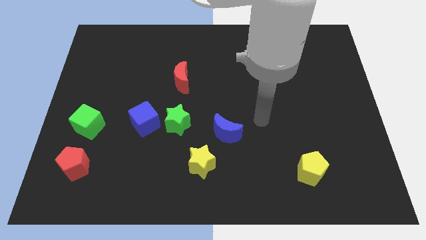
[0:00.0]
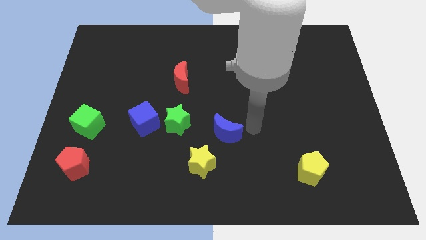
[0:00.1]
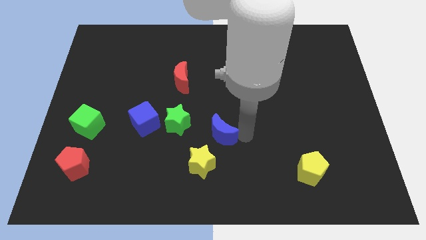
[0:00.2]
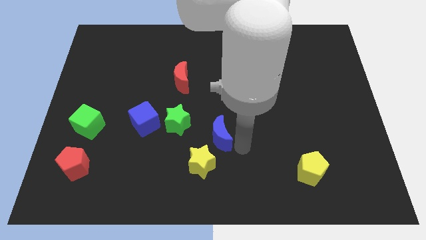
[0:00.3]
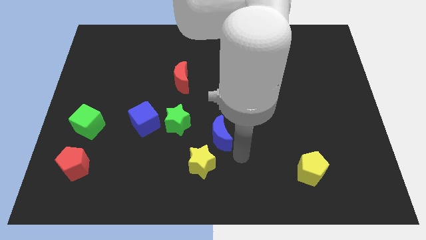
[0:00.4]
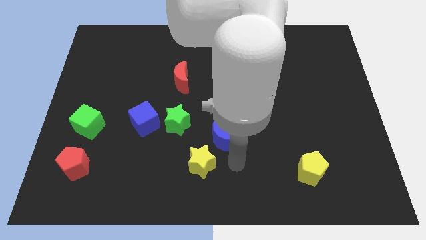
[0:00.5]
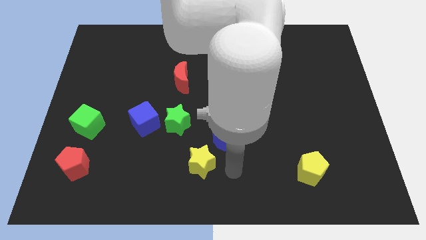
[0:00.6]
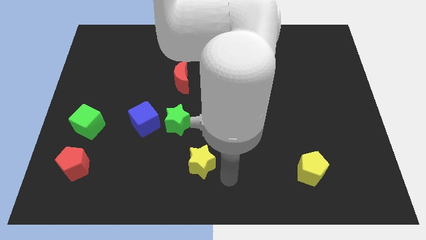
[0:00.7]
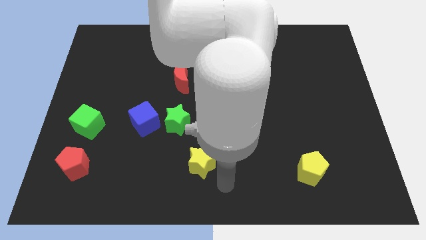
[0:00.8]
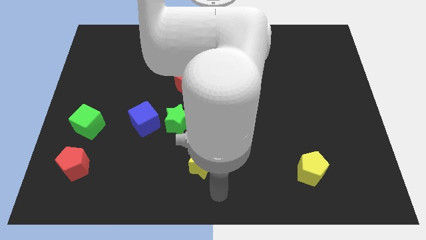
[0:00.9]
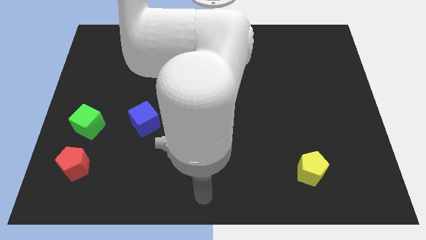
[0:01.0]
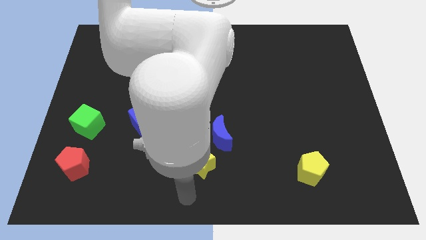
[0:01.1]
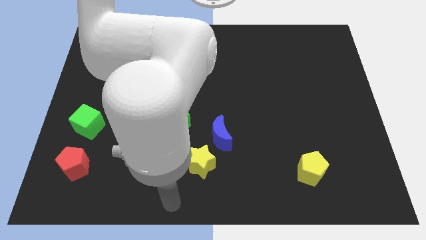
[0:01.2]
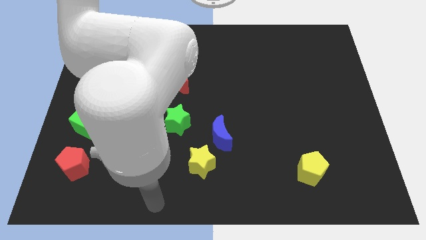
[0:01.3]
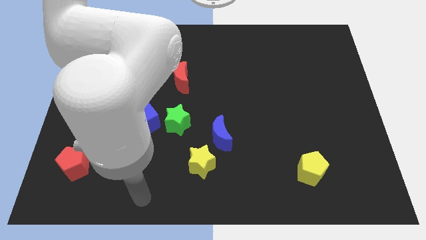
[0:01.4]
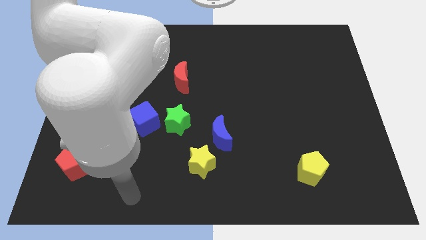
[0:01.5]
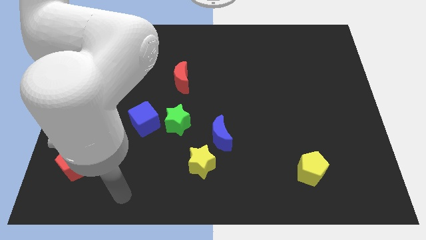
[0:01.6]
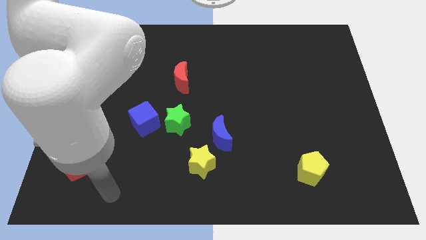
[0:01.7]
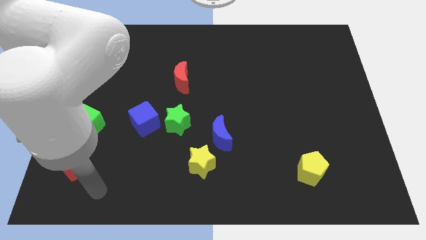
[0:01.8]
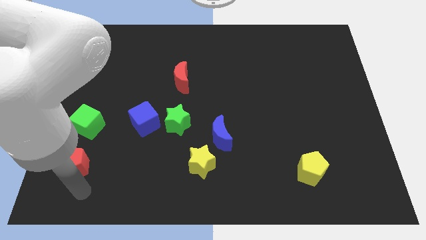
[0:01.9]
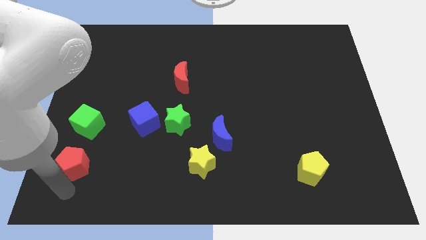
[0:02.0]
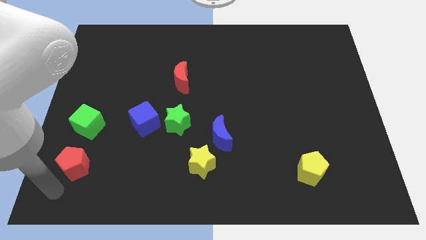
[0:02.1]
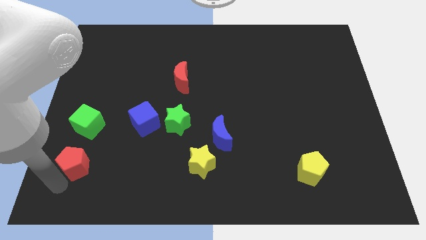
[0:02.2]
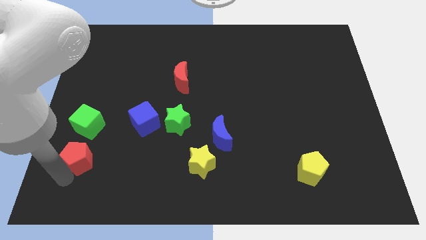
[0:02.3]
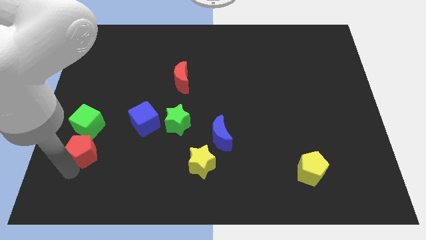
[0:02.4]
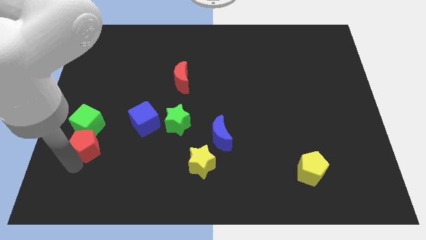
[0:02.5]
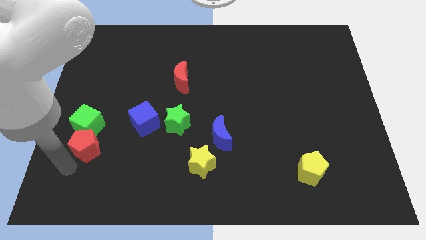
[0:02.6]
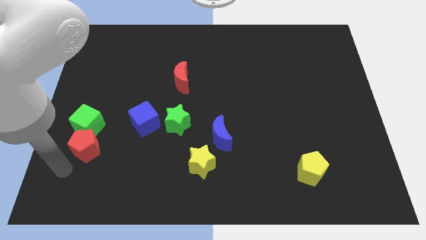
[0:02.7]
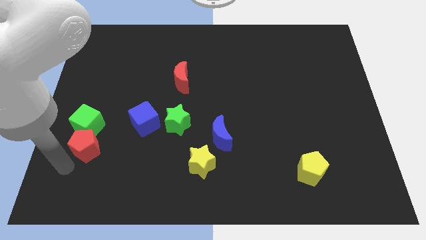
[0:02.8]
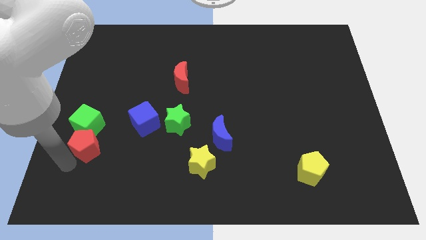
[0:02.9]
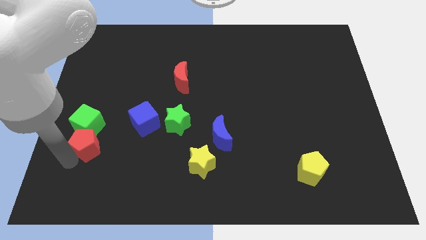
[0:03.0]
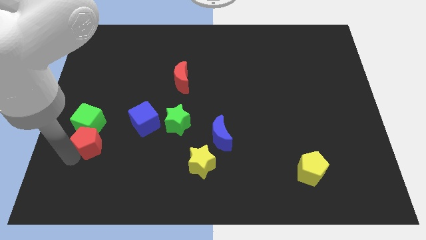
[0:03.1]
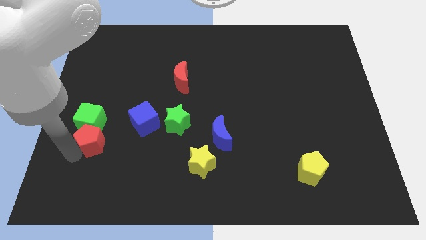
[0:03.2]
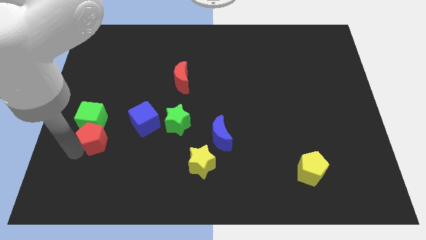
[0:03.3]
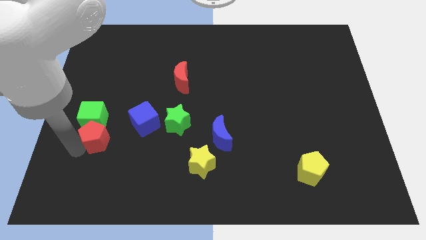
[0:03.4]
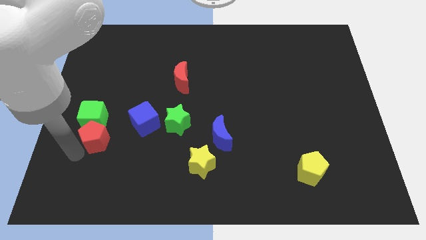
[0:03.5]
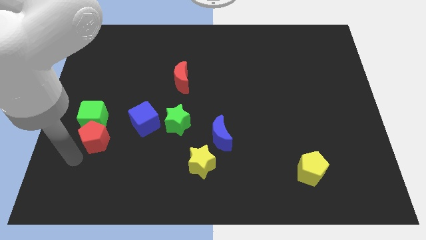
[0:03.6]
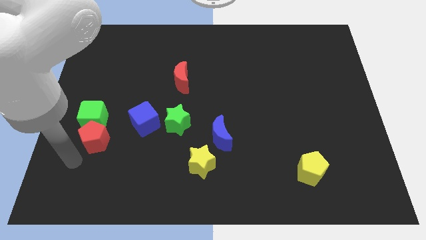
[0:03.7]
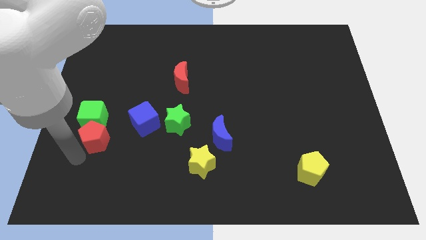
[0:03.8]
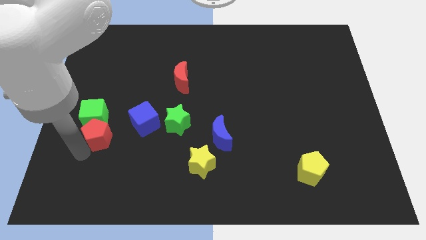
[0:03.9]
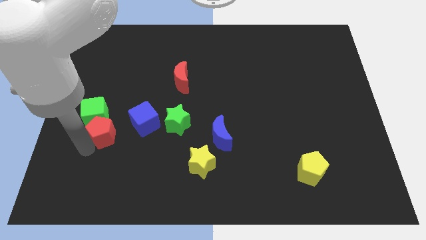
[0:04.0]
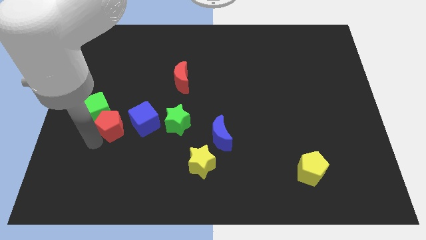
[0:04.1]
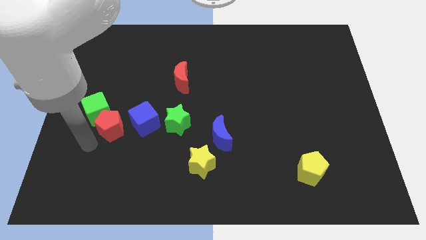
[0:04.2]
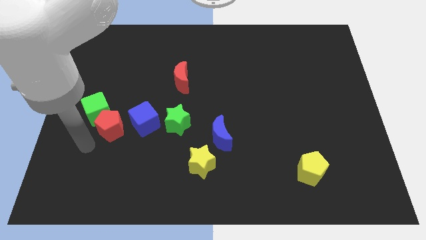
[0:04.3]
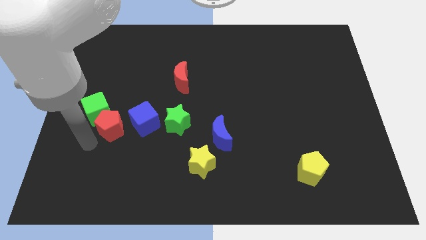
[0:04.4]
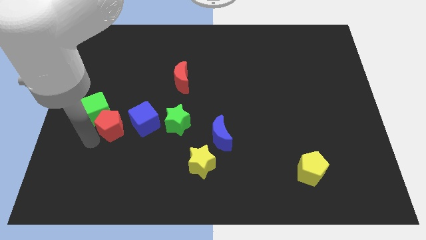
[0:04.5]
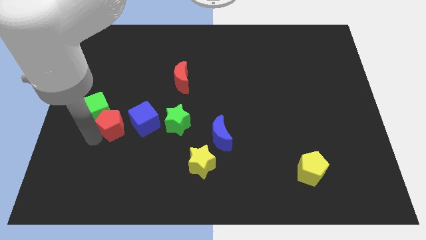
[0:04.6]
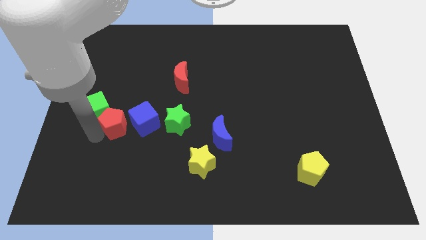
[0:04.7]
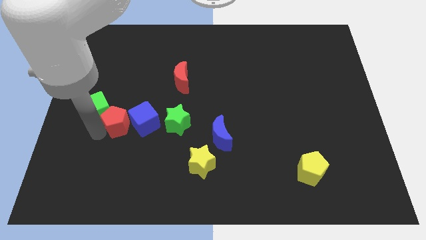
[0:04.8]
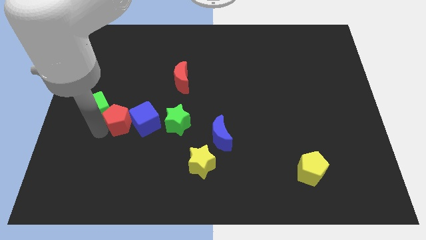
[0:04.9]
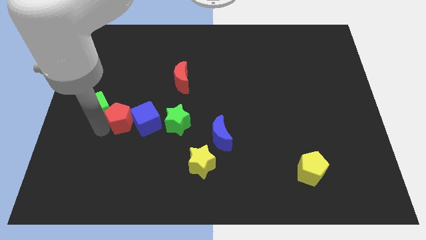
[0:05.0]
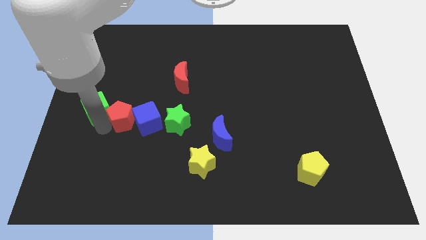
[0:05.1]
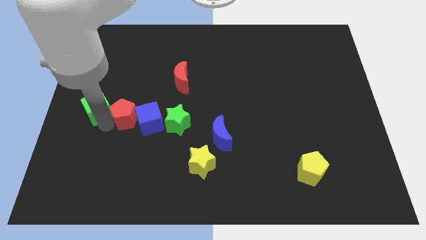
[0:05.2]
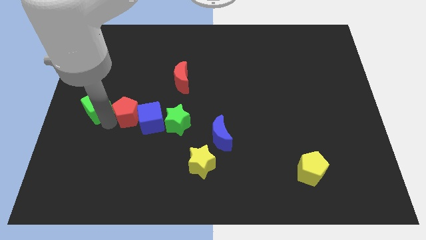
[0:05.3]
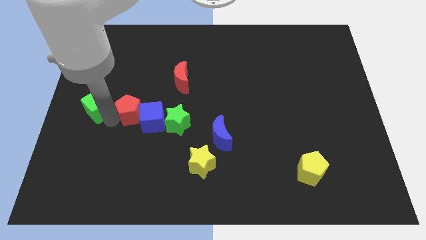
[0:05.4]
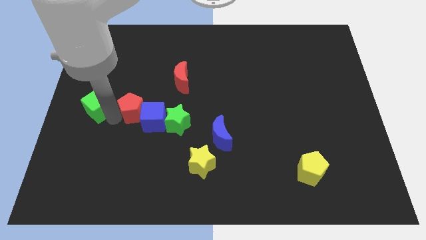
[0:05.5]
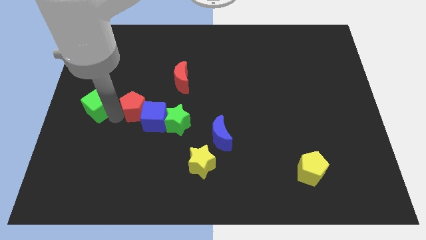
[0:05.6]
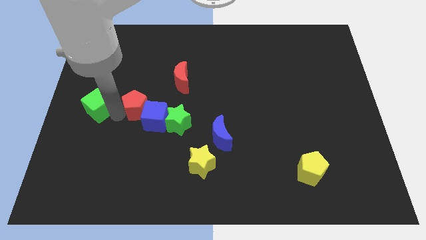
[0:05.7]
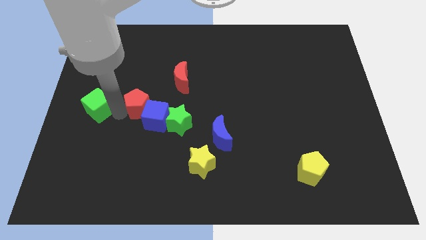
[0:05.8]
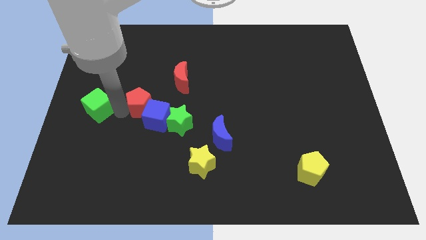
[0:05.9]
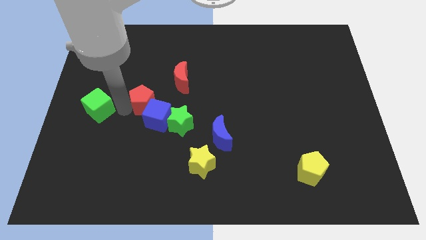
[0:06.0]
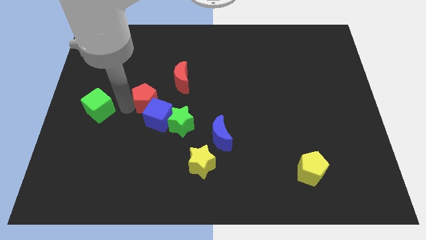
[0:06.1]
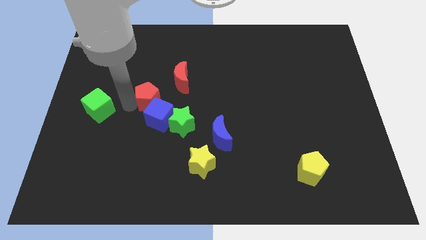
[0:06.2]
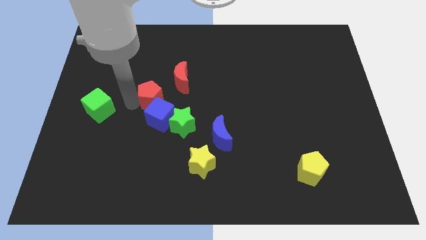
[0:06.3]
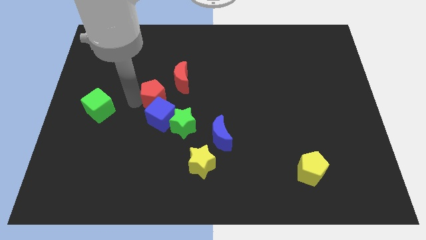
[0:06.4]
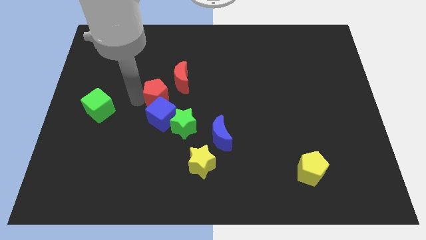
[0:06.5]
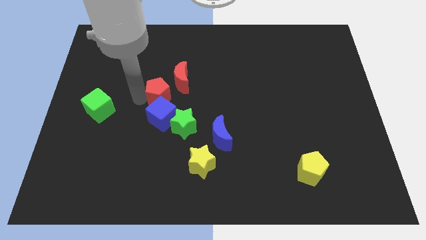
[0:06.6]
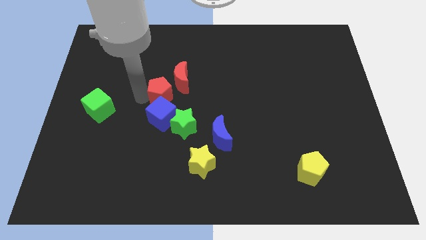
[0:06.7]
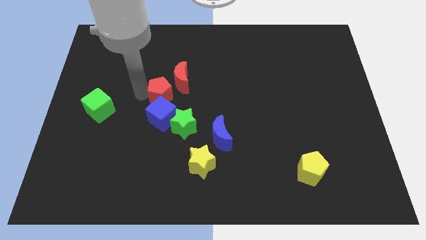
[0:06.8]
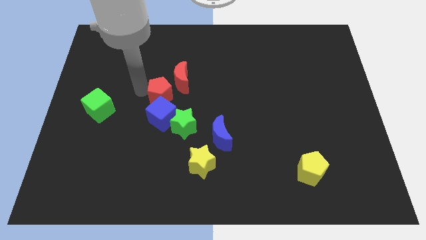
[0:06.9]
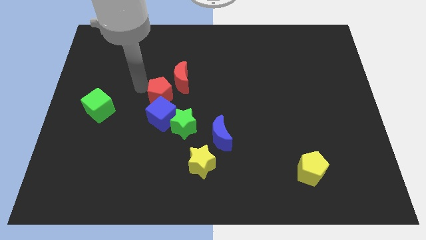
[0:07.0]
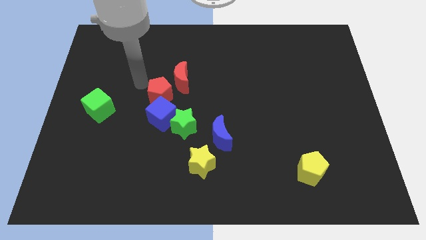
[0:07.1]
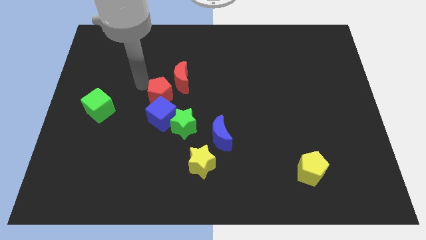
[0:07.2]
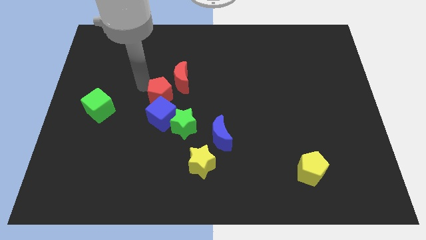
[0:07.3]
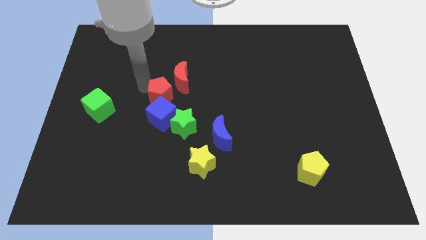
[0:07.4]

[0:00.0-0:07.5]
push the red pentagon to the center
